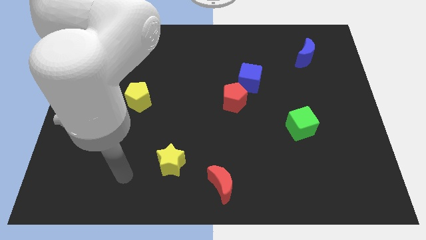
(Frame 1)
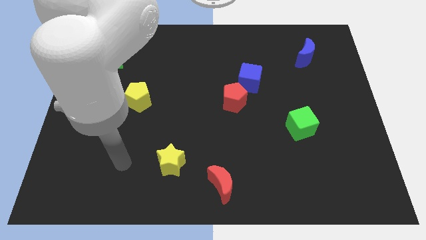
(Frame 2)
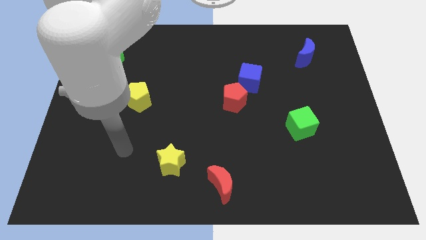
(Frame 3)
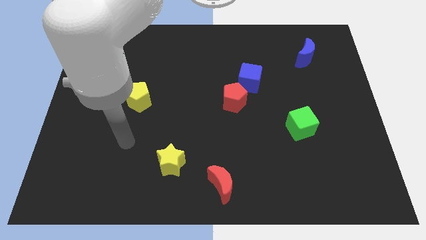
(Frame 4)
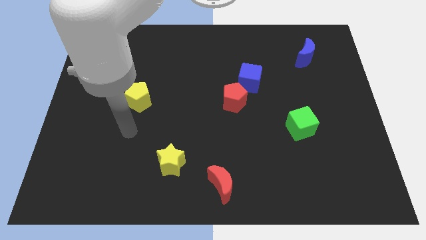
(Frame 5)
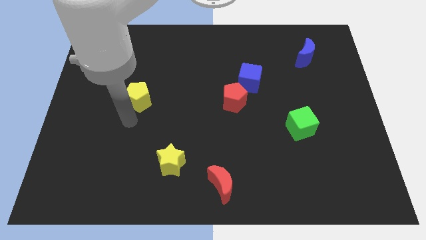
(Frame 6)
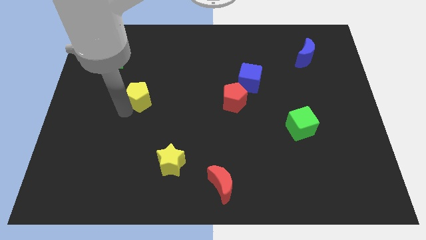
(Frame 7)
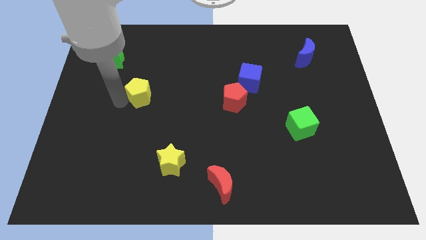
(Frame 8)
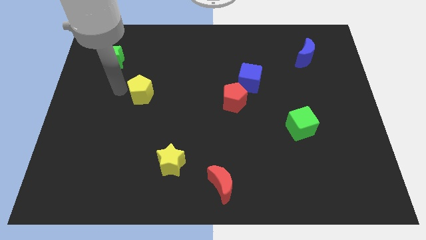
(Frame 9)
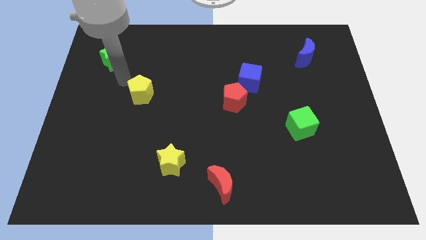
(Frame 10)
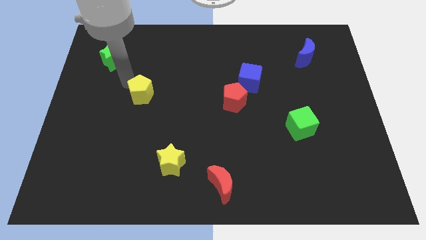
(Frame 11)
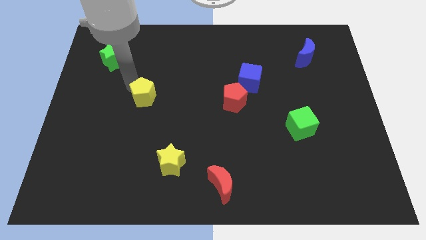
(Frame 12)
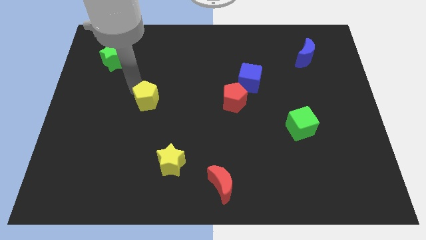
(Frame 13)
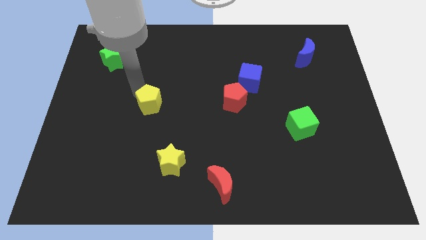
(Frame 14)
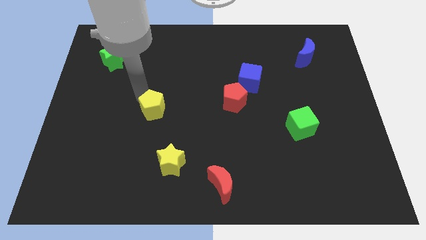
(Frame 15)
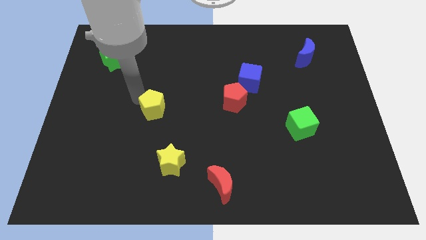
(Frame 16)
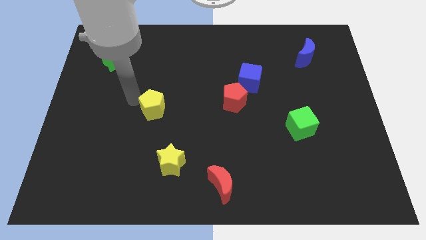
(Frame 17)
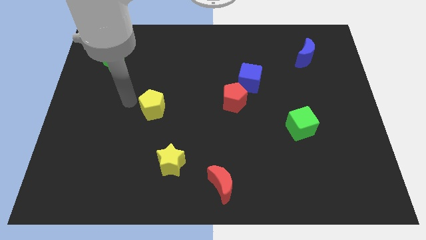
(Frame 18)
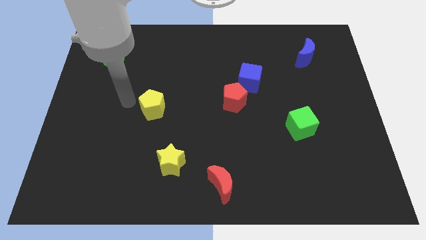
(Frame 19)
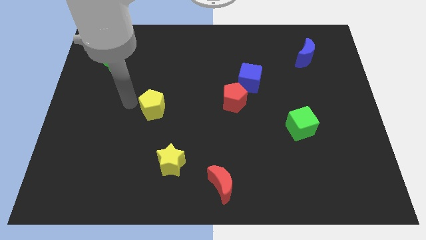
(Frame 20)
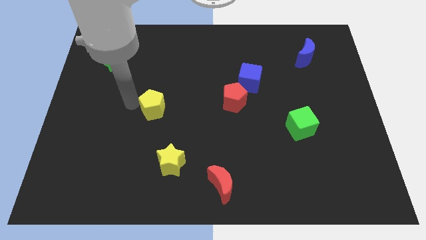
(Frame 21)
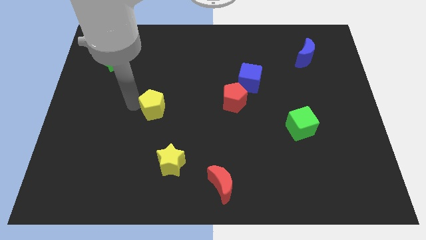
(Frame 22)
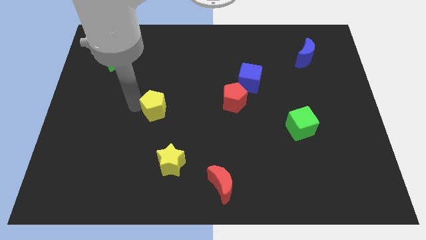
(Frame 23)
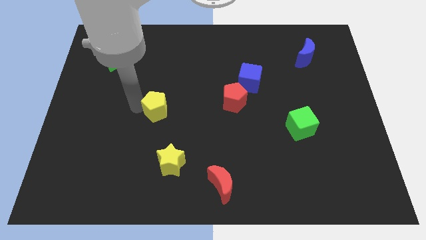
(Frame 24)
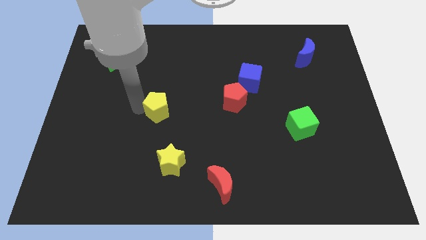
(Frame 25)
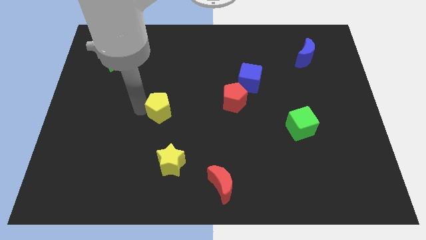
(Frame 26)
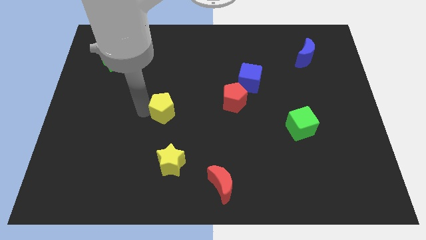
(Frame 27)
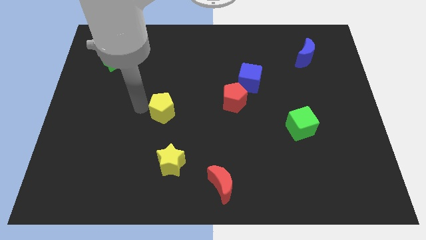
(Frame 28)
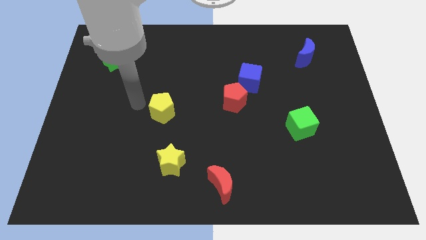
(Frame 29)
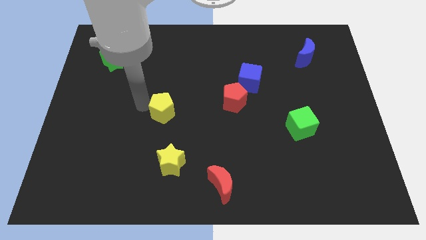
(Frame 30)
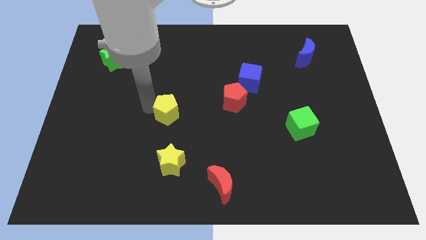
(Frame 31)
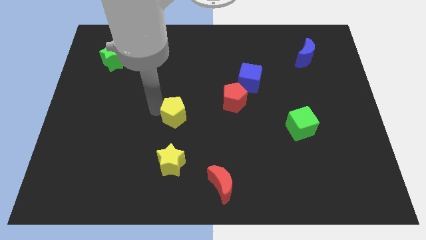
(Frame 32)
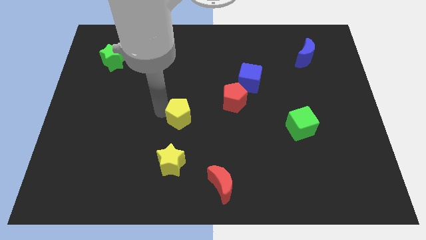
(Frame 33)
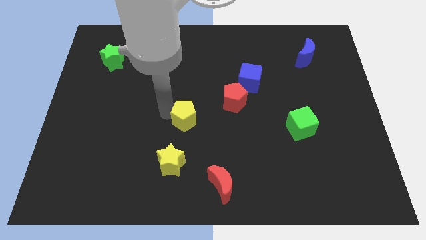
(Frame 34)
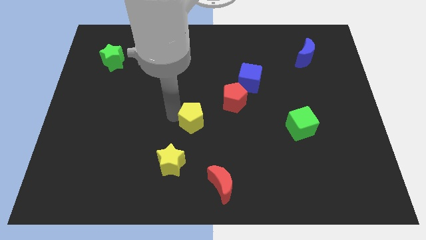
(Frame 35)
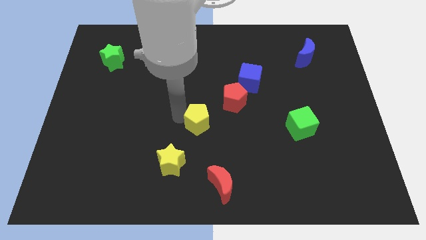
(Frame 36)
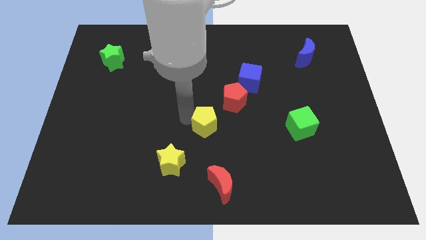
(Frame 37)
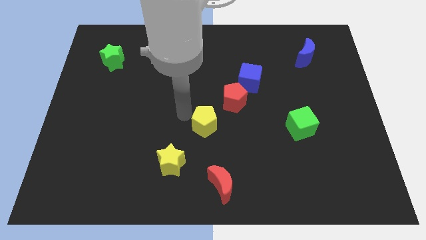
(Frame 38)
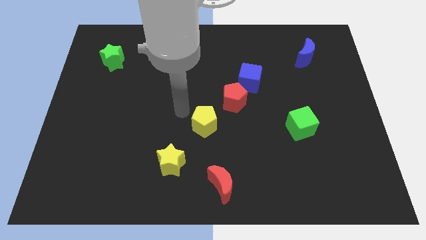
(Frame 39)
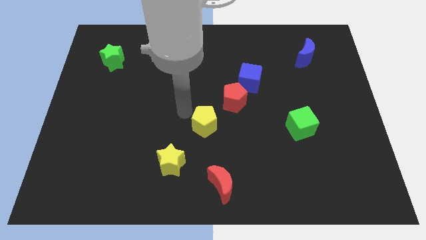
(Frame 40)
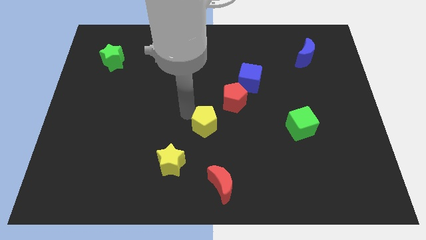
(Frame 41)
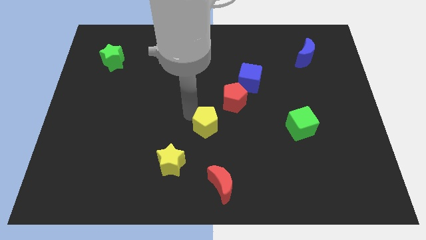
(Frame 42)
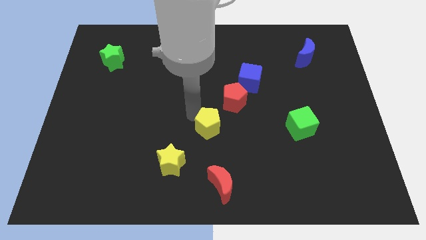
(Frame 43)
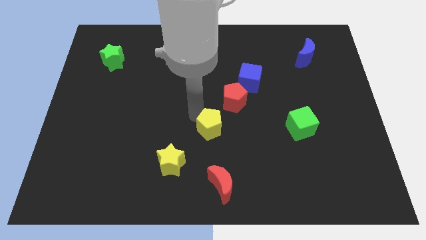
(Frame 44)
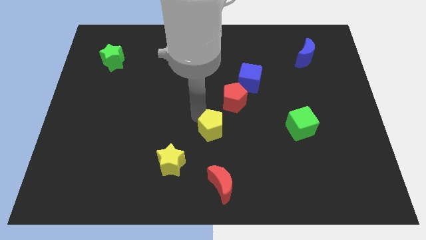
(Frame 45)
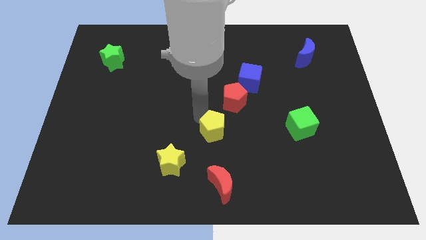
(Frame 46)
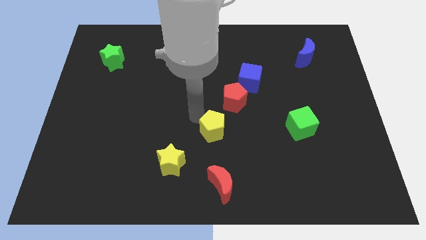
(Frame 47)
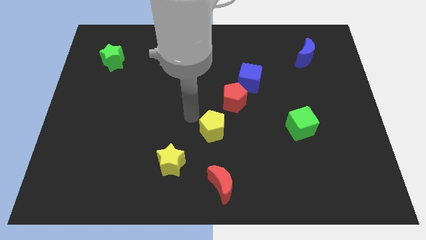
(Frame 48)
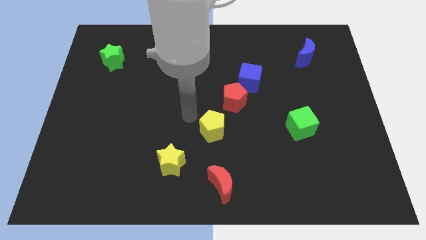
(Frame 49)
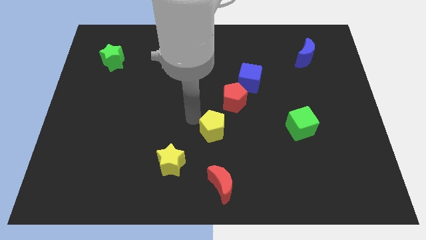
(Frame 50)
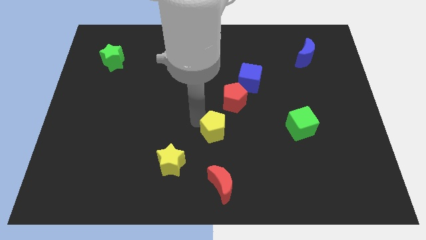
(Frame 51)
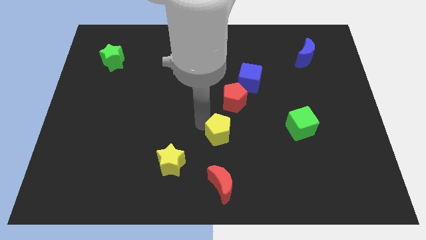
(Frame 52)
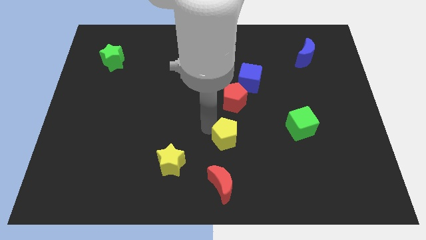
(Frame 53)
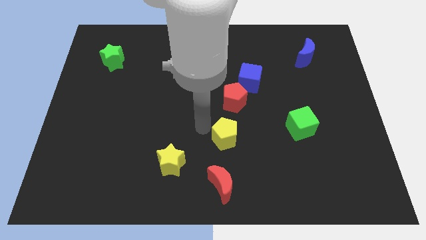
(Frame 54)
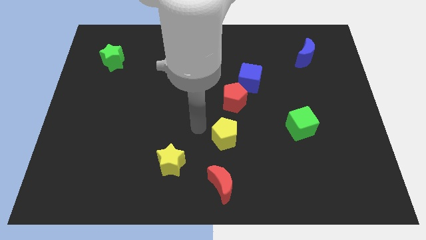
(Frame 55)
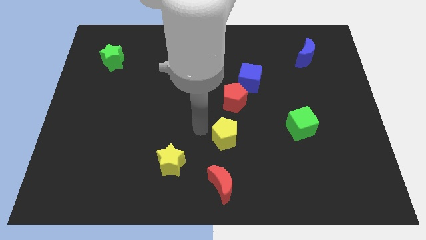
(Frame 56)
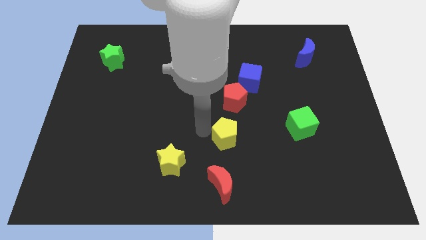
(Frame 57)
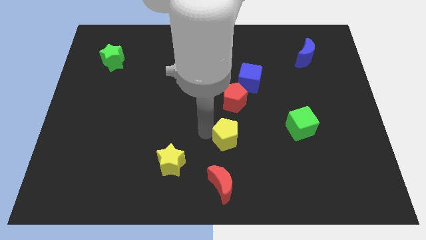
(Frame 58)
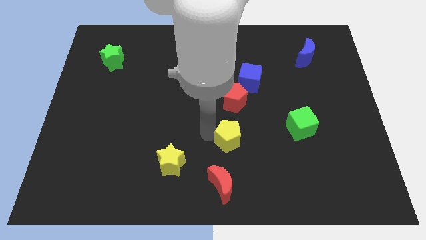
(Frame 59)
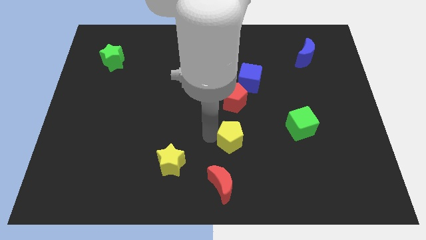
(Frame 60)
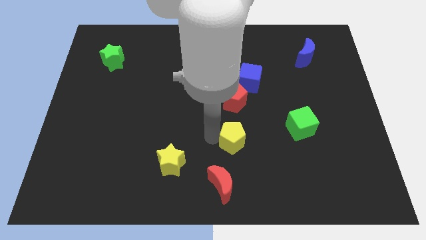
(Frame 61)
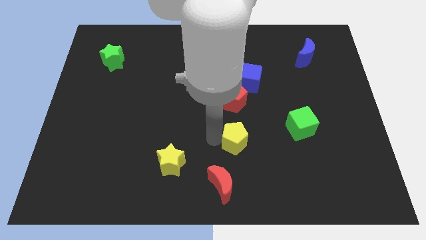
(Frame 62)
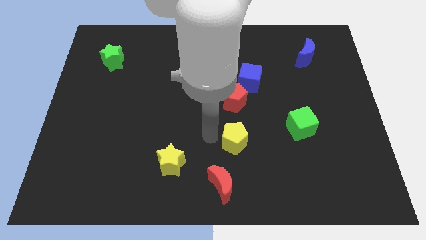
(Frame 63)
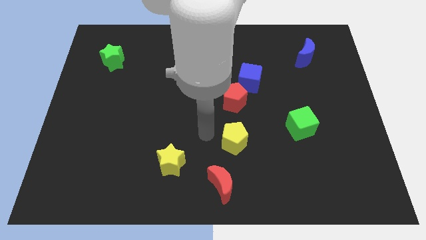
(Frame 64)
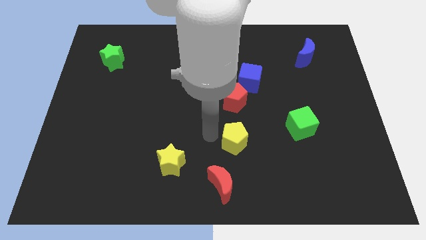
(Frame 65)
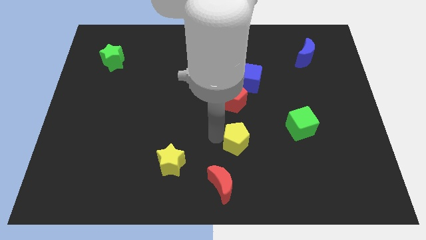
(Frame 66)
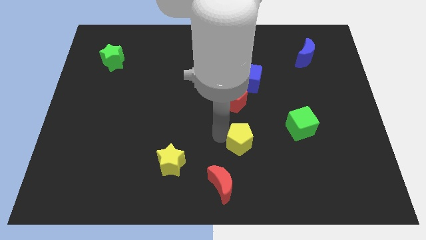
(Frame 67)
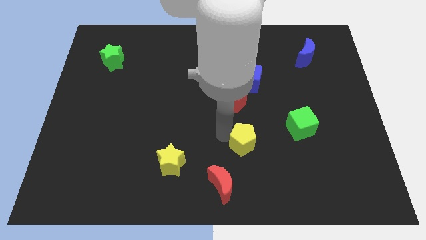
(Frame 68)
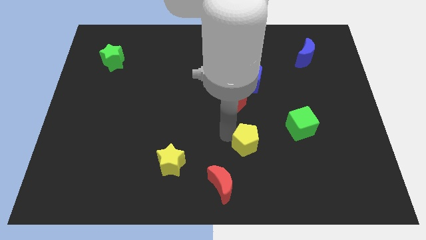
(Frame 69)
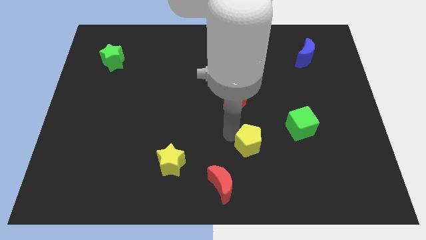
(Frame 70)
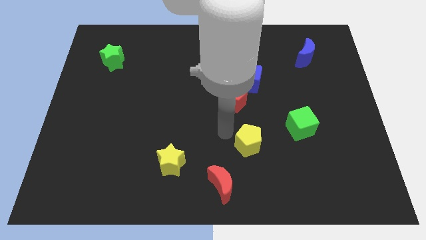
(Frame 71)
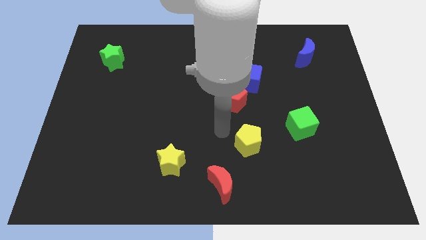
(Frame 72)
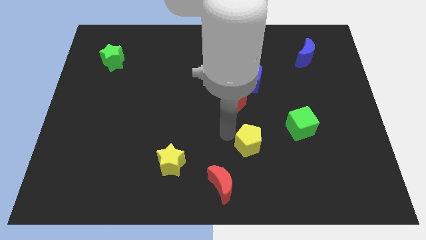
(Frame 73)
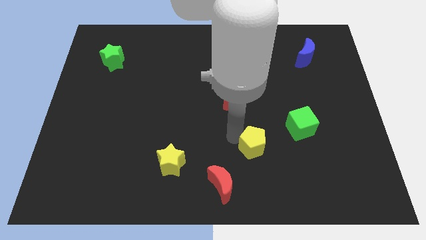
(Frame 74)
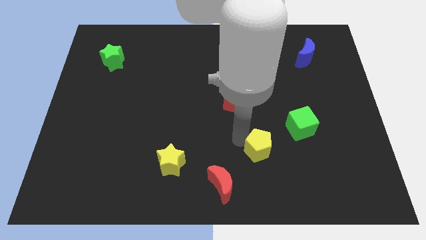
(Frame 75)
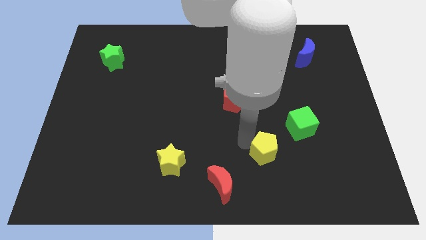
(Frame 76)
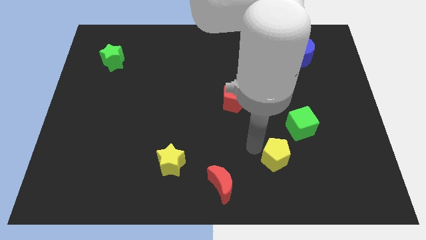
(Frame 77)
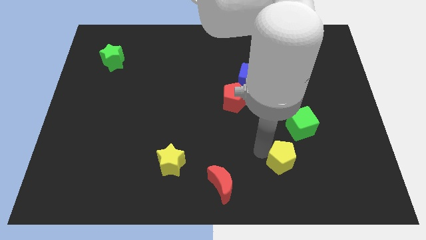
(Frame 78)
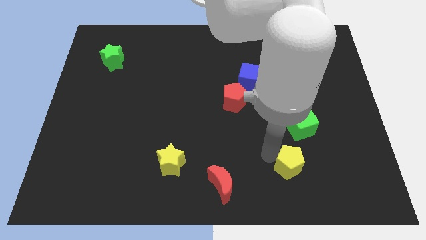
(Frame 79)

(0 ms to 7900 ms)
push the yellow pentagon below the green cube
